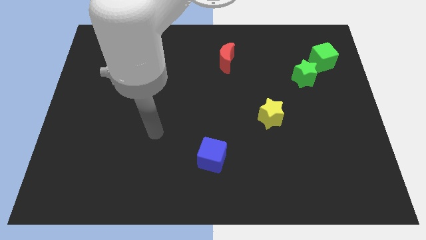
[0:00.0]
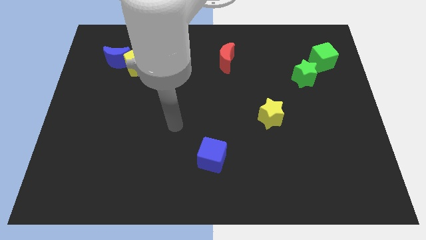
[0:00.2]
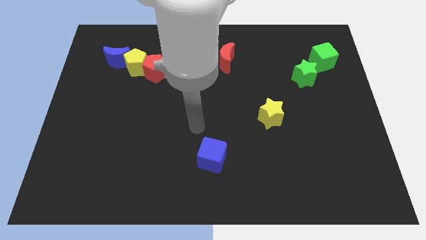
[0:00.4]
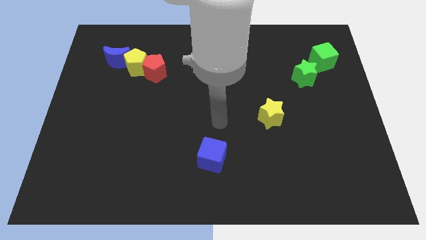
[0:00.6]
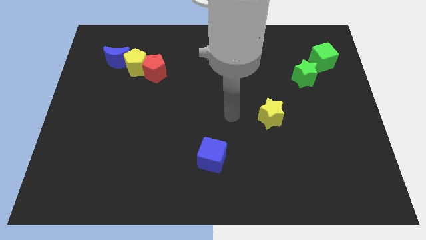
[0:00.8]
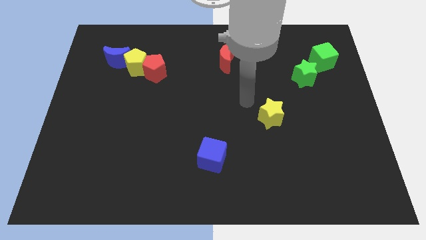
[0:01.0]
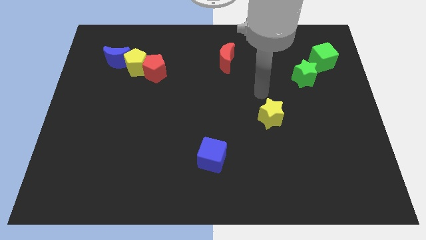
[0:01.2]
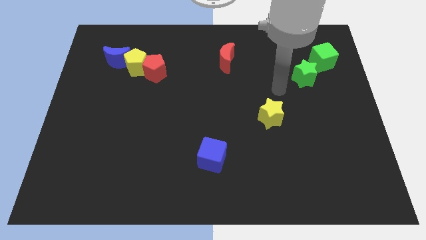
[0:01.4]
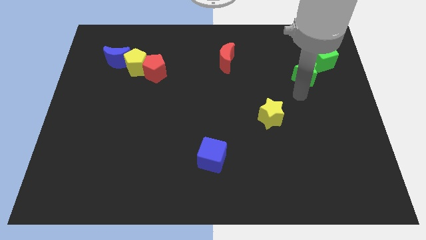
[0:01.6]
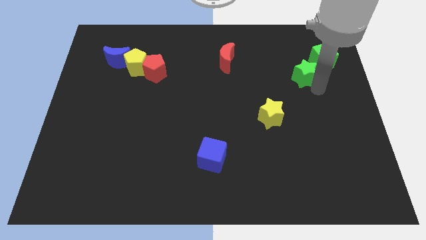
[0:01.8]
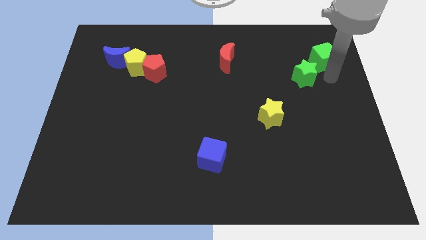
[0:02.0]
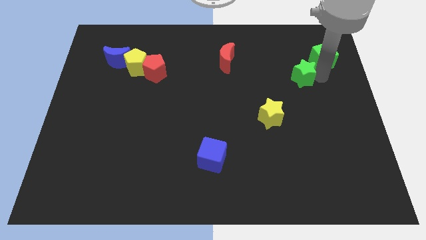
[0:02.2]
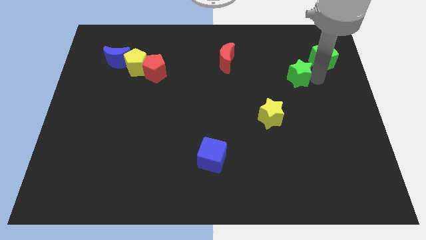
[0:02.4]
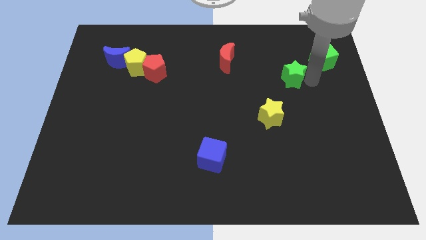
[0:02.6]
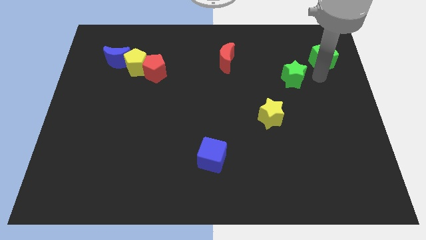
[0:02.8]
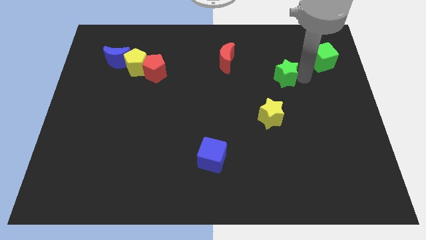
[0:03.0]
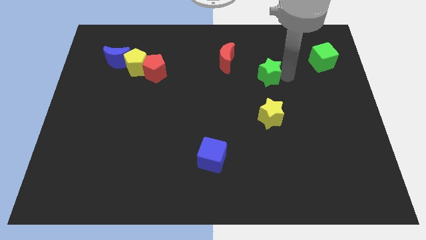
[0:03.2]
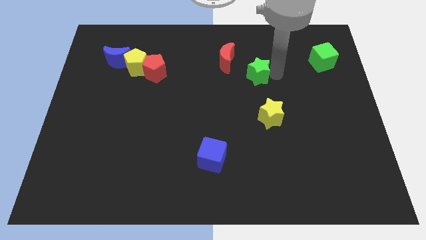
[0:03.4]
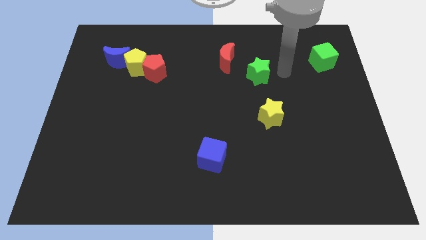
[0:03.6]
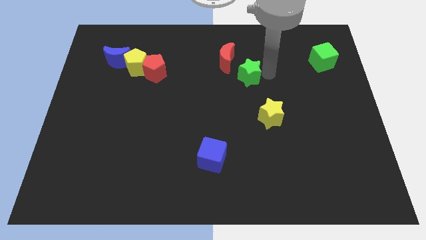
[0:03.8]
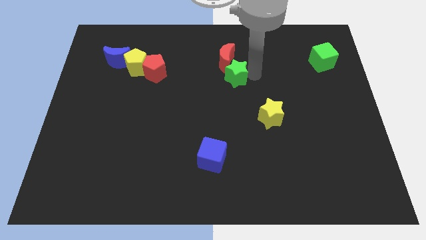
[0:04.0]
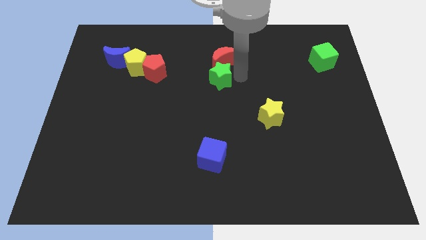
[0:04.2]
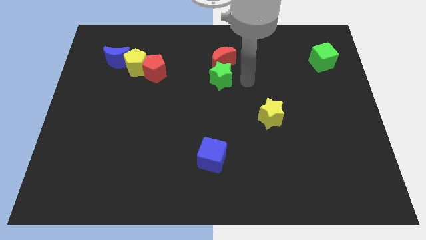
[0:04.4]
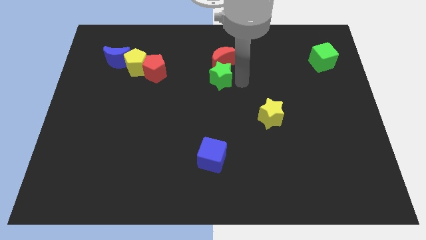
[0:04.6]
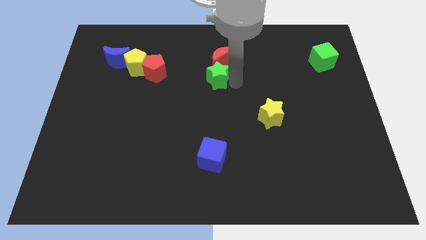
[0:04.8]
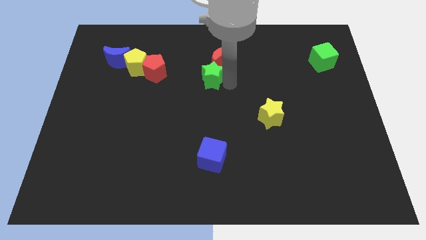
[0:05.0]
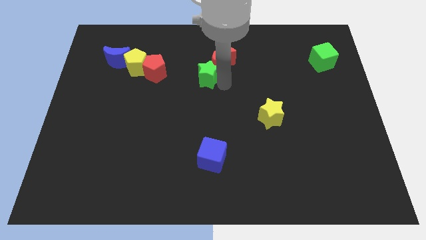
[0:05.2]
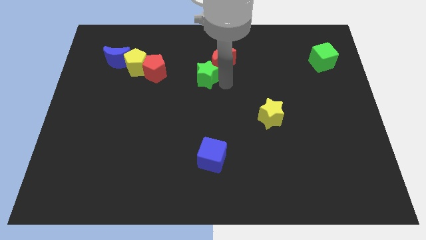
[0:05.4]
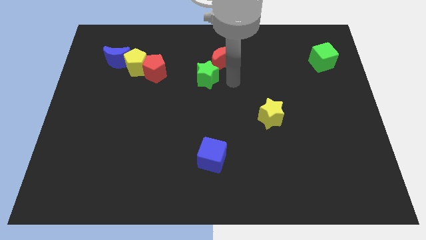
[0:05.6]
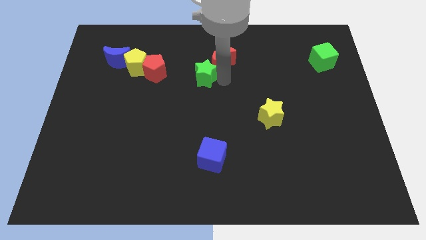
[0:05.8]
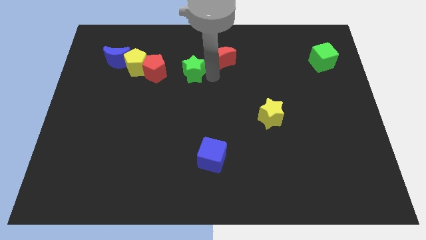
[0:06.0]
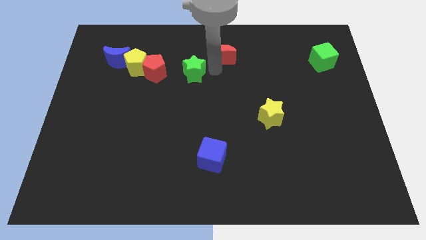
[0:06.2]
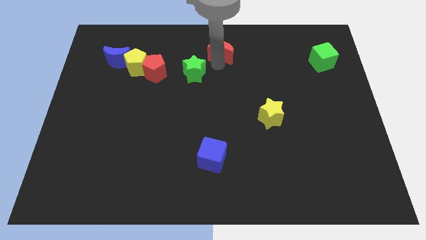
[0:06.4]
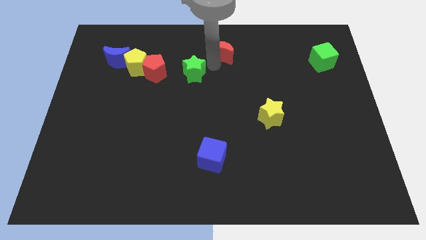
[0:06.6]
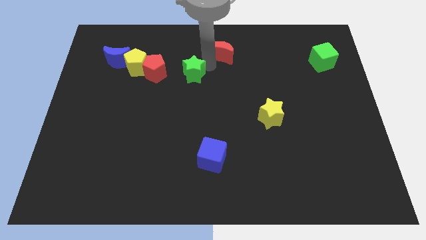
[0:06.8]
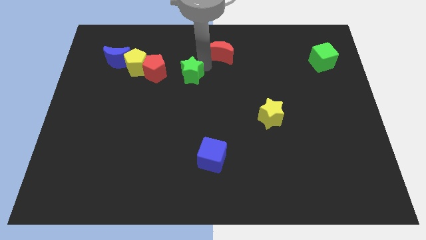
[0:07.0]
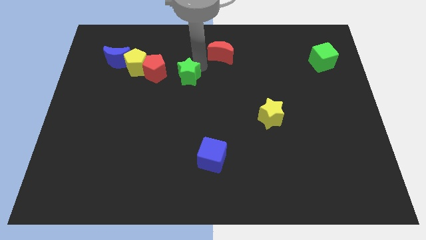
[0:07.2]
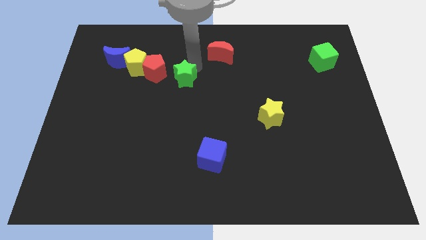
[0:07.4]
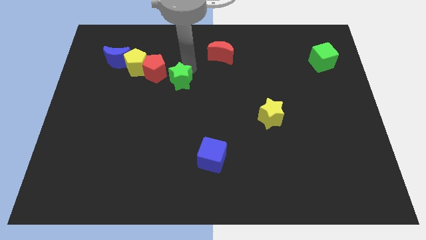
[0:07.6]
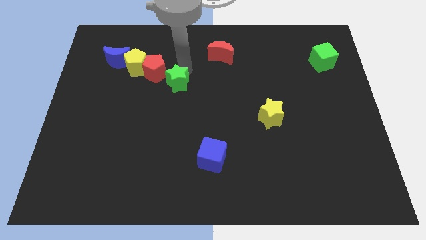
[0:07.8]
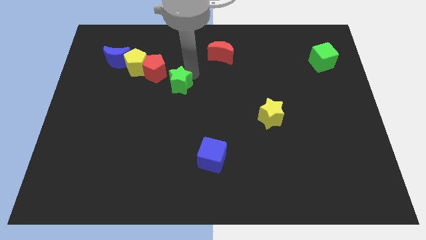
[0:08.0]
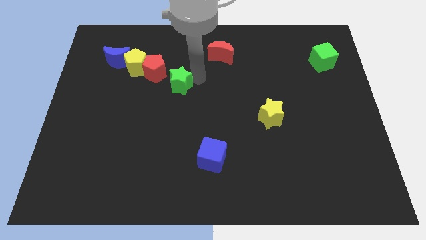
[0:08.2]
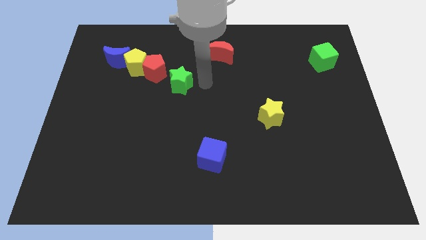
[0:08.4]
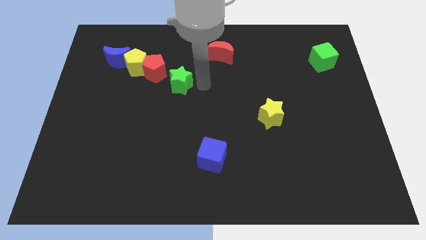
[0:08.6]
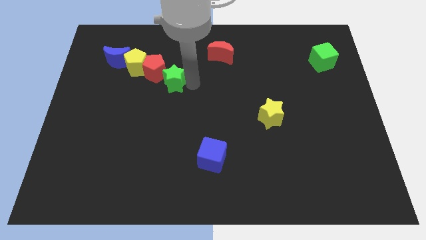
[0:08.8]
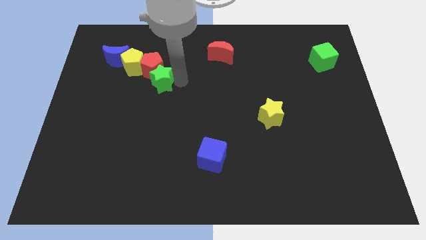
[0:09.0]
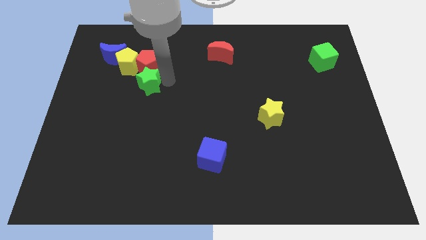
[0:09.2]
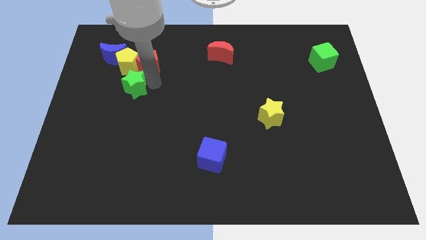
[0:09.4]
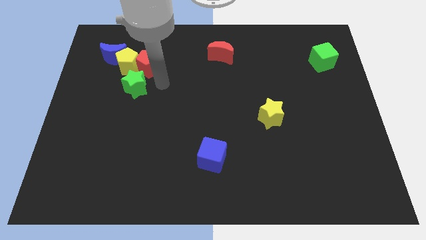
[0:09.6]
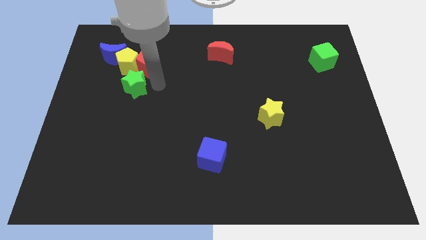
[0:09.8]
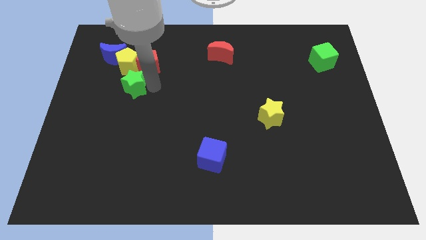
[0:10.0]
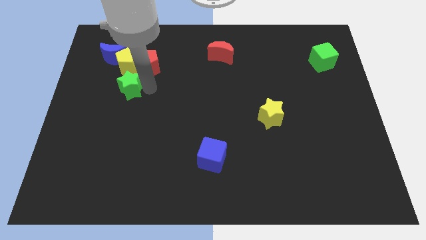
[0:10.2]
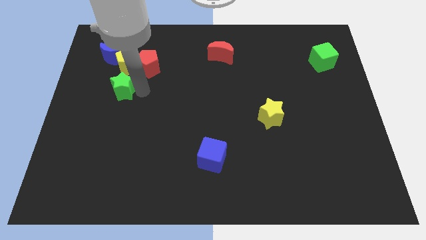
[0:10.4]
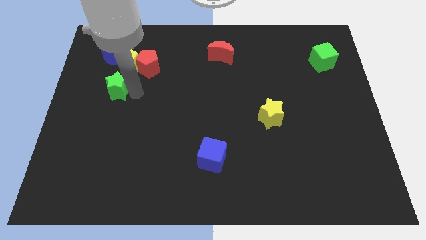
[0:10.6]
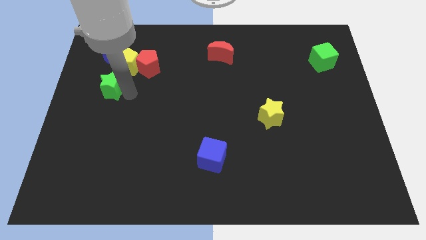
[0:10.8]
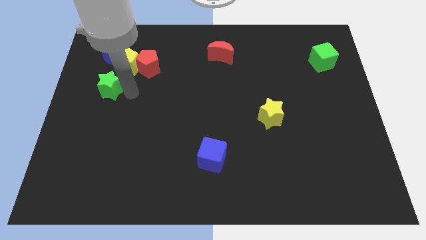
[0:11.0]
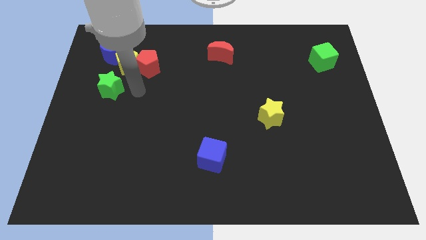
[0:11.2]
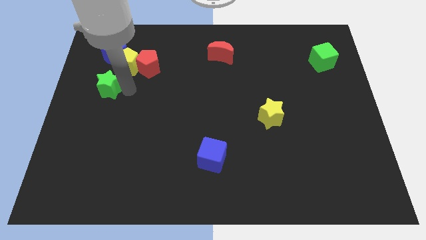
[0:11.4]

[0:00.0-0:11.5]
push the green star to the left side of the board

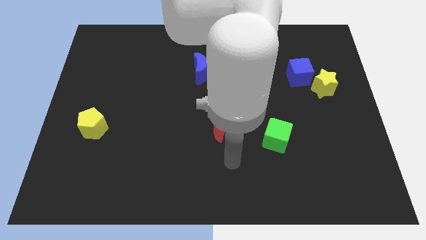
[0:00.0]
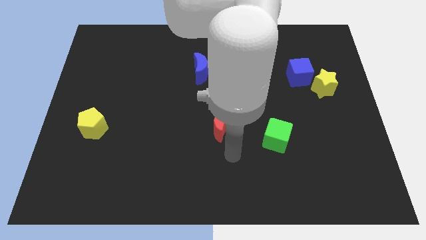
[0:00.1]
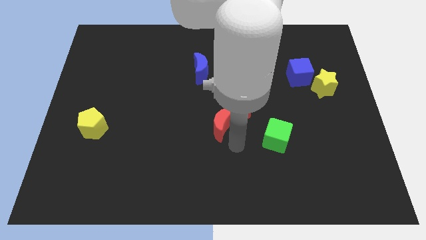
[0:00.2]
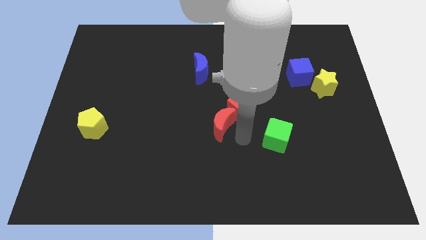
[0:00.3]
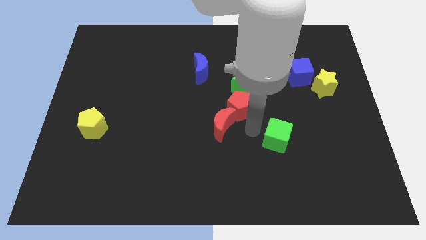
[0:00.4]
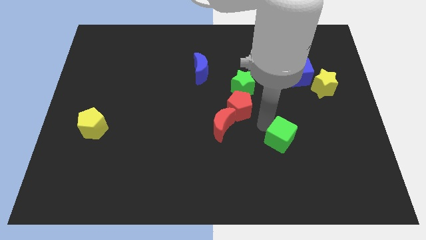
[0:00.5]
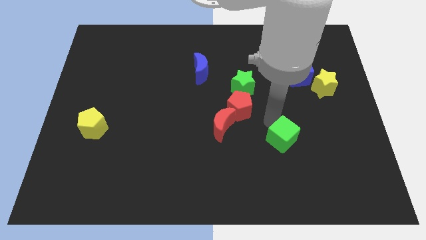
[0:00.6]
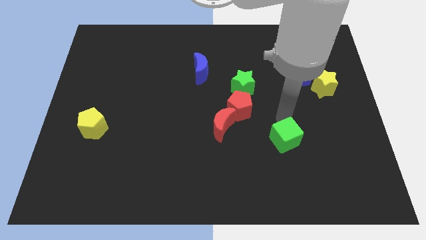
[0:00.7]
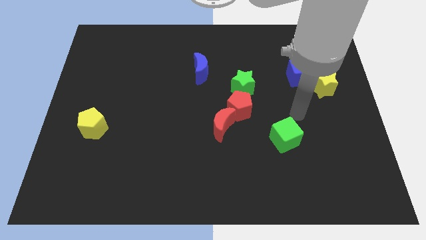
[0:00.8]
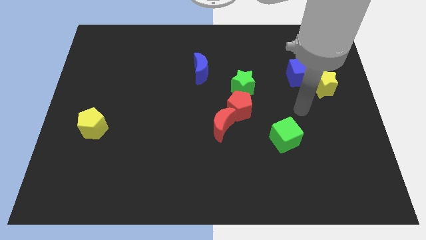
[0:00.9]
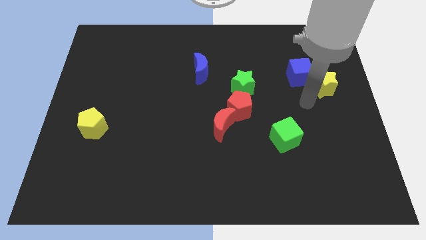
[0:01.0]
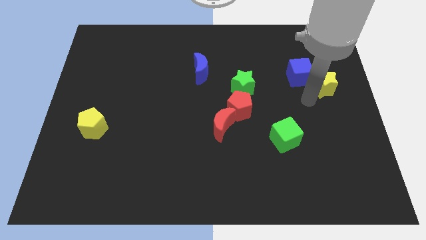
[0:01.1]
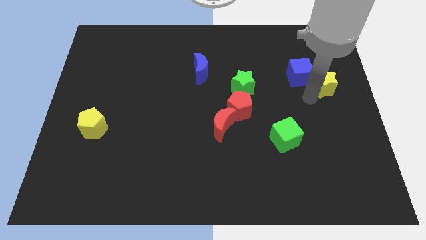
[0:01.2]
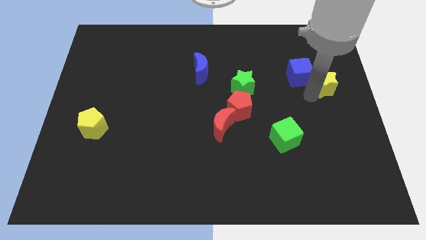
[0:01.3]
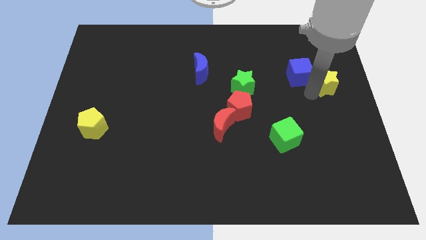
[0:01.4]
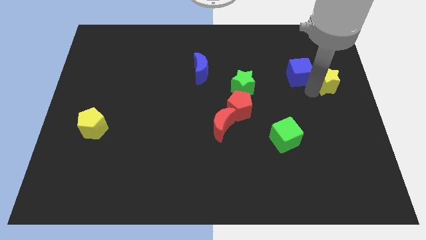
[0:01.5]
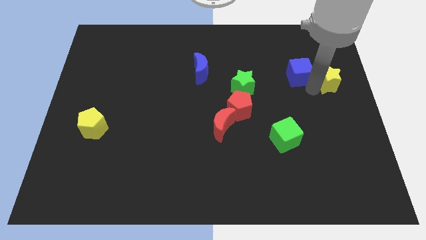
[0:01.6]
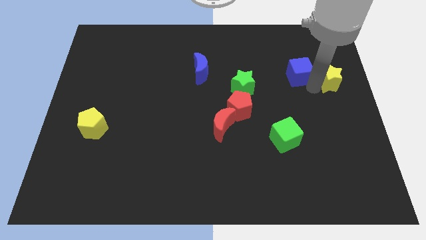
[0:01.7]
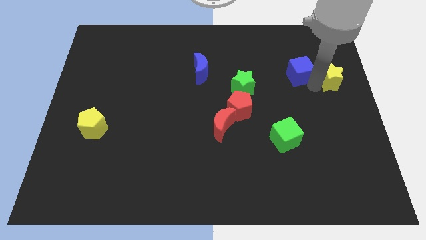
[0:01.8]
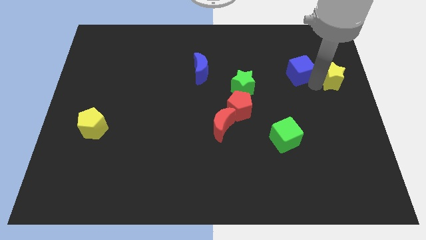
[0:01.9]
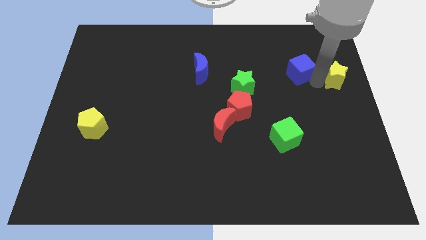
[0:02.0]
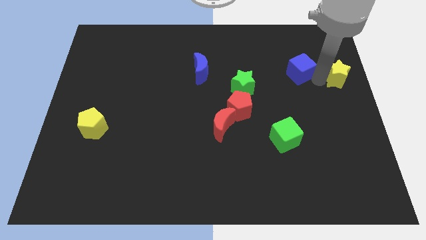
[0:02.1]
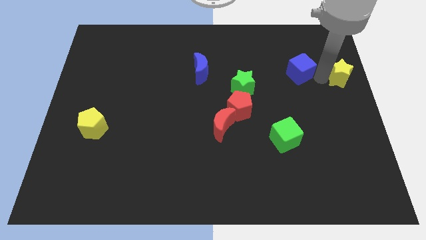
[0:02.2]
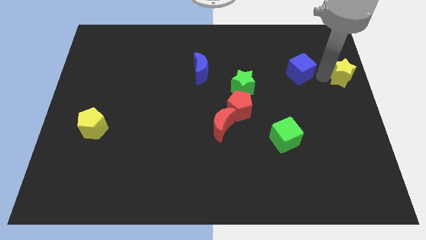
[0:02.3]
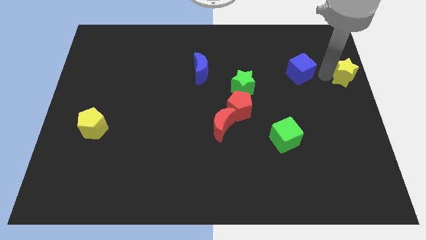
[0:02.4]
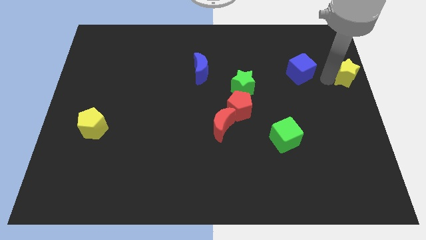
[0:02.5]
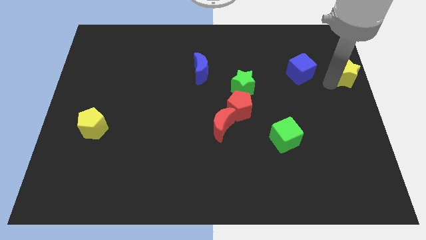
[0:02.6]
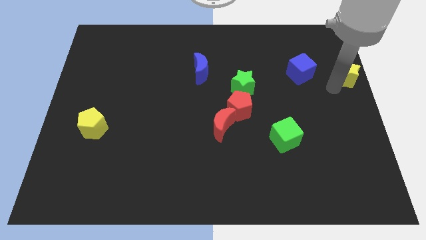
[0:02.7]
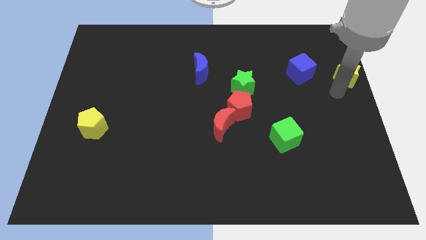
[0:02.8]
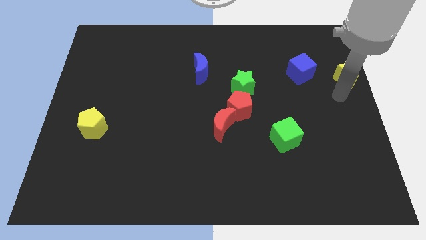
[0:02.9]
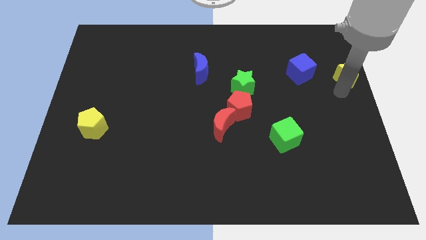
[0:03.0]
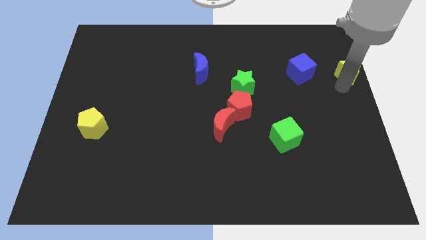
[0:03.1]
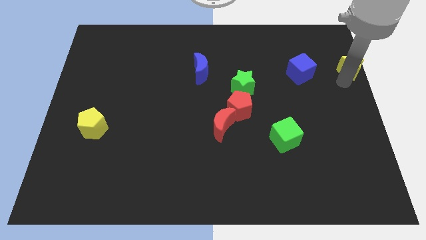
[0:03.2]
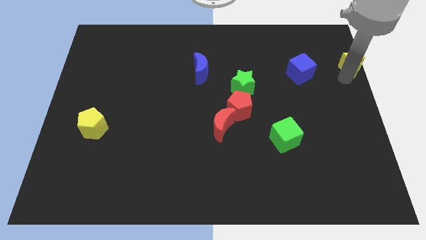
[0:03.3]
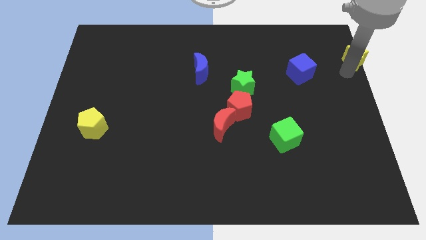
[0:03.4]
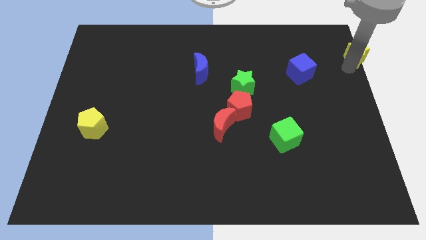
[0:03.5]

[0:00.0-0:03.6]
push the yellow star to the upper right corner
